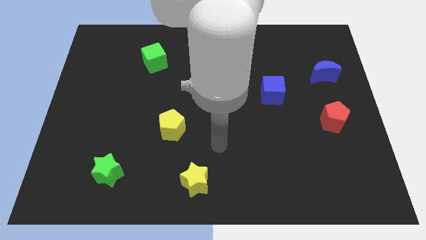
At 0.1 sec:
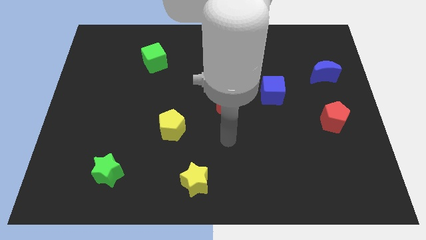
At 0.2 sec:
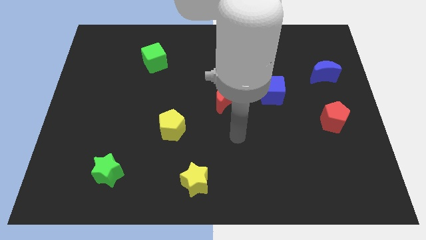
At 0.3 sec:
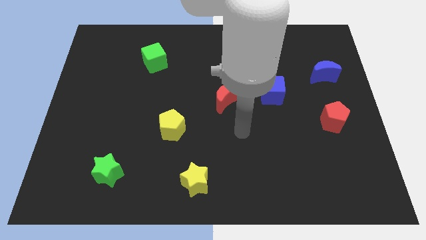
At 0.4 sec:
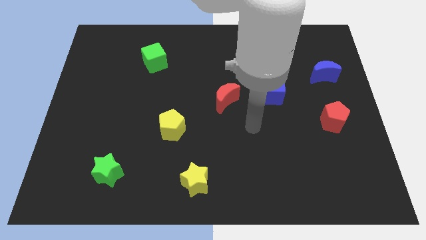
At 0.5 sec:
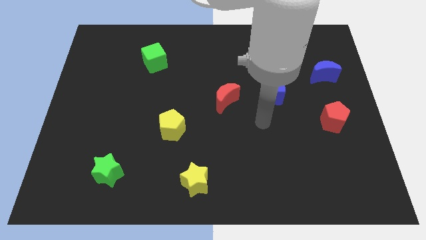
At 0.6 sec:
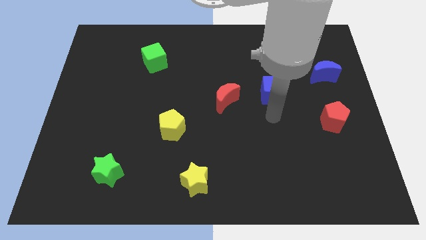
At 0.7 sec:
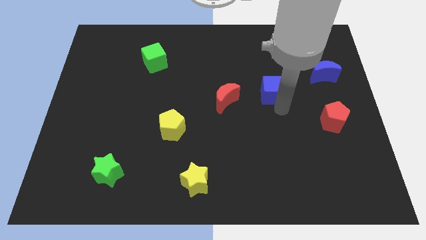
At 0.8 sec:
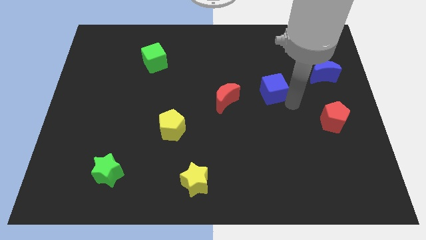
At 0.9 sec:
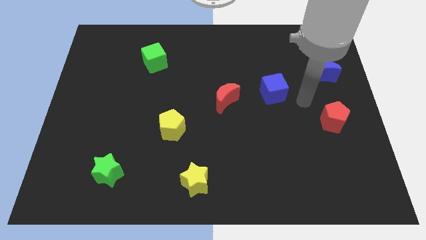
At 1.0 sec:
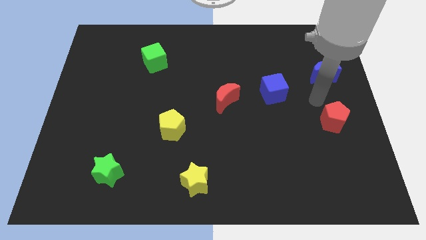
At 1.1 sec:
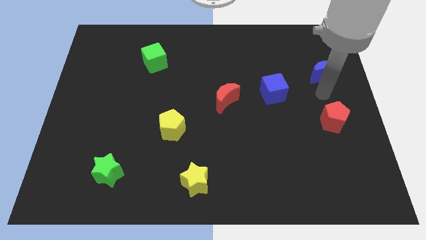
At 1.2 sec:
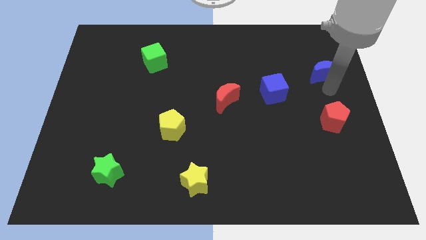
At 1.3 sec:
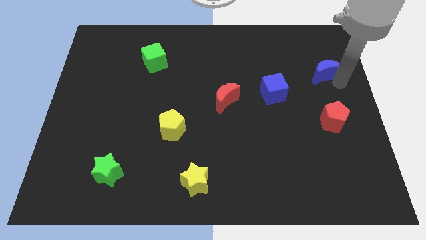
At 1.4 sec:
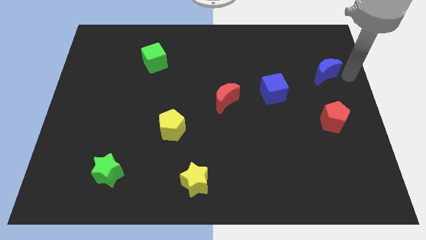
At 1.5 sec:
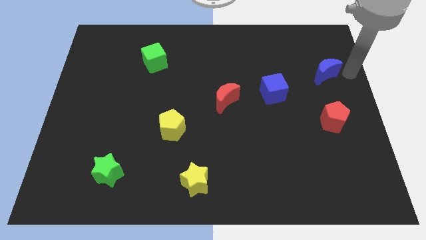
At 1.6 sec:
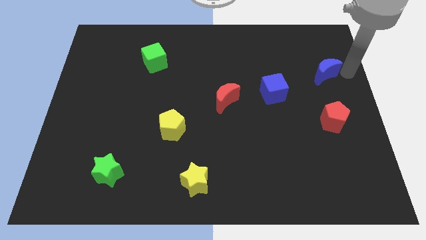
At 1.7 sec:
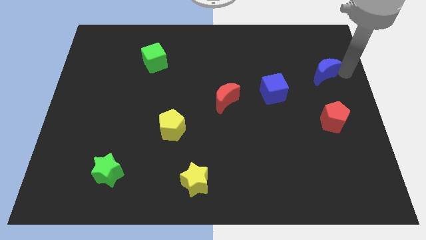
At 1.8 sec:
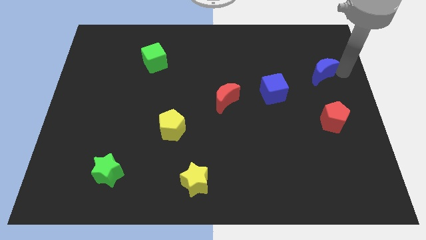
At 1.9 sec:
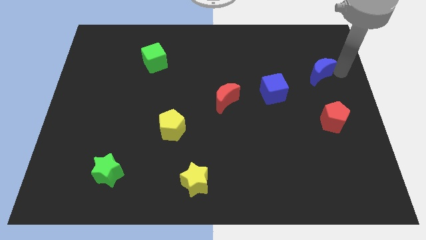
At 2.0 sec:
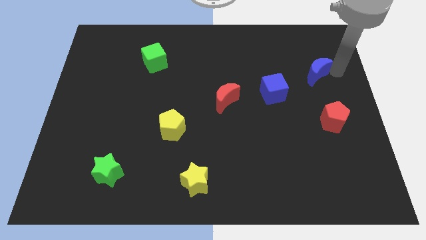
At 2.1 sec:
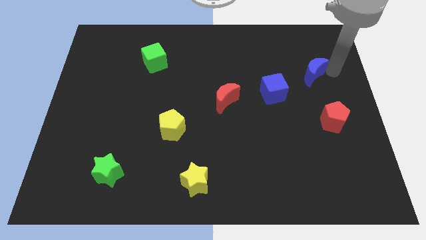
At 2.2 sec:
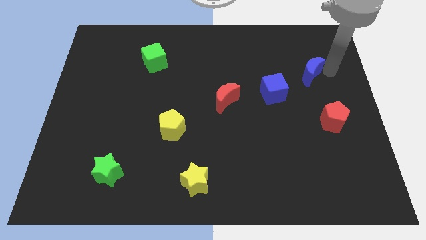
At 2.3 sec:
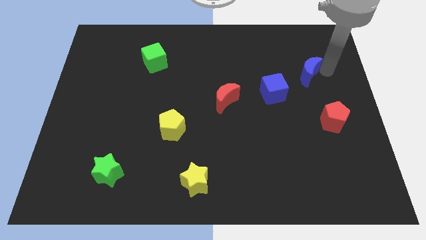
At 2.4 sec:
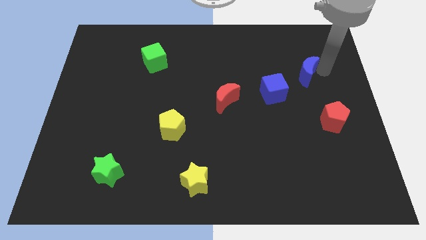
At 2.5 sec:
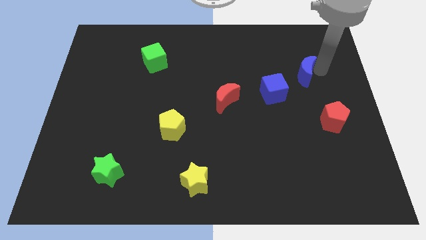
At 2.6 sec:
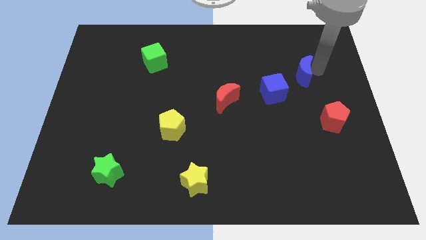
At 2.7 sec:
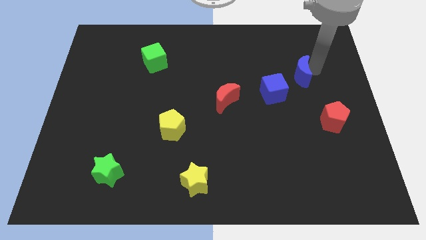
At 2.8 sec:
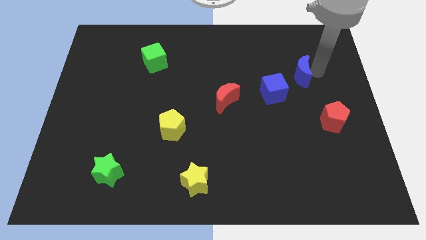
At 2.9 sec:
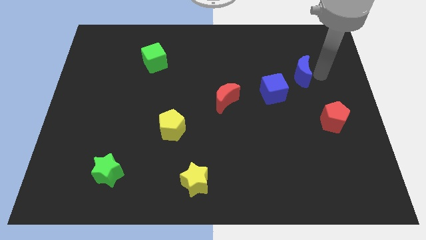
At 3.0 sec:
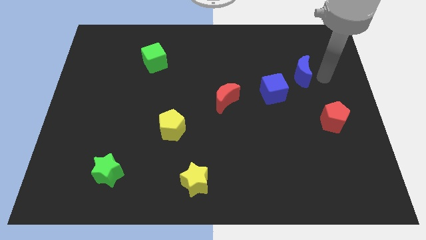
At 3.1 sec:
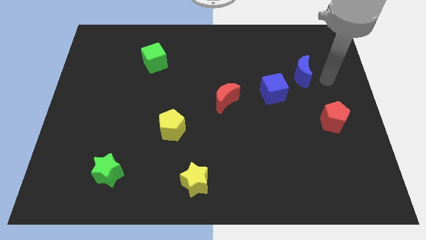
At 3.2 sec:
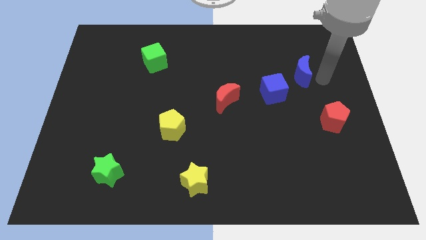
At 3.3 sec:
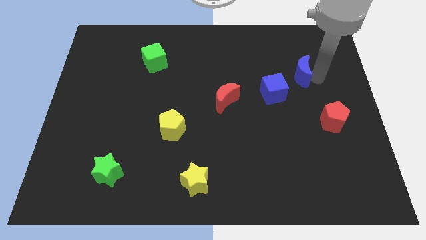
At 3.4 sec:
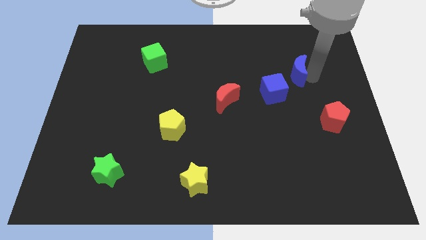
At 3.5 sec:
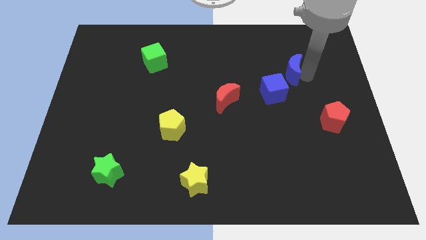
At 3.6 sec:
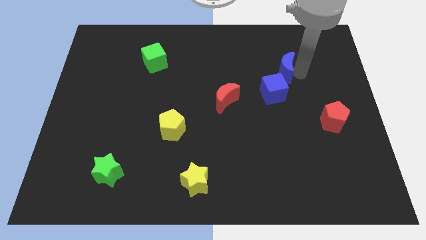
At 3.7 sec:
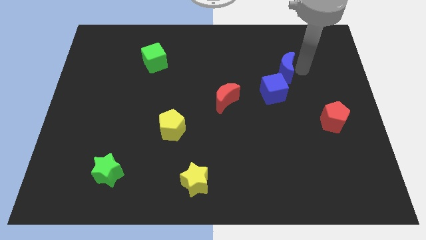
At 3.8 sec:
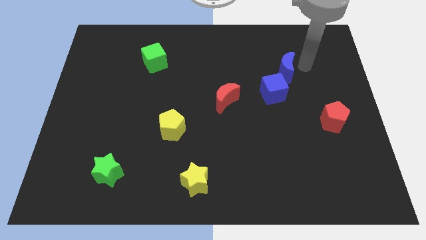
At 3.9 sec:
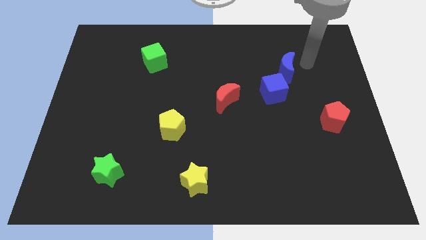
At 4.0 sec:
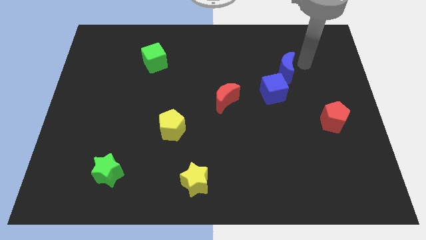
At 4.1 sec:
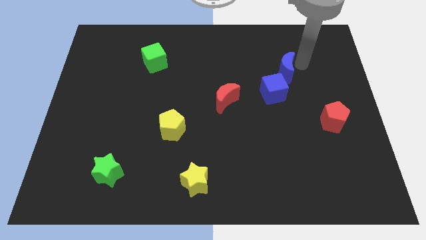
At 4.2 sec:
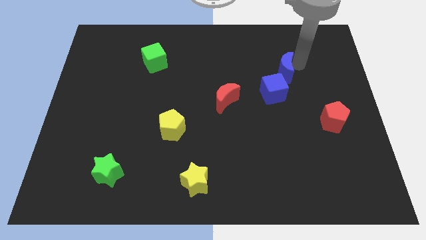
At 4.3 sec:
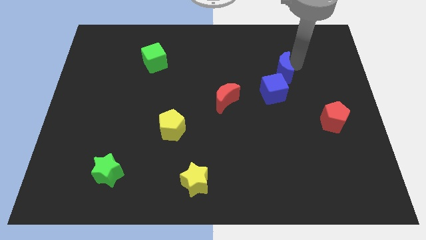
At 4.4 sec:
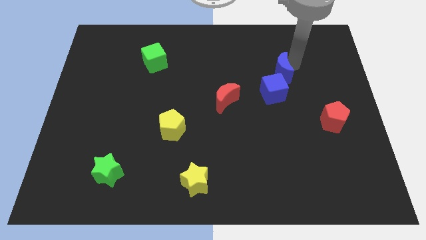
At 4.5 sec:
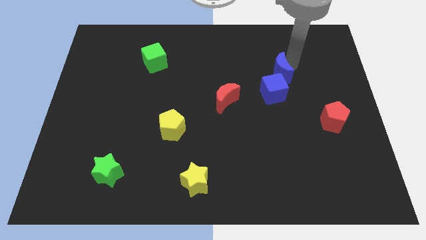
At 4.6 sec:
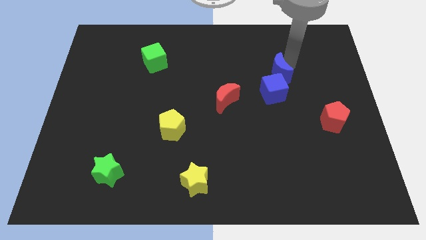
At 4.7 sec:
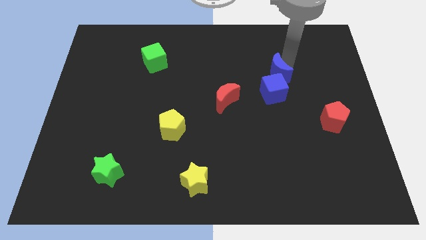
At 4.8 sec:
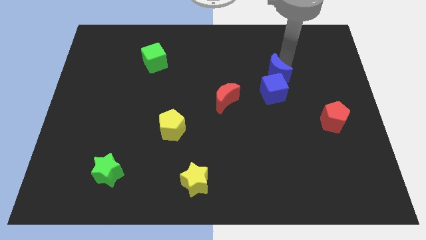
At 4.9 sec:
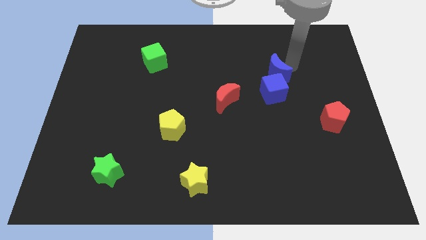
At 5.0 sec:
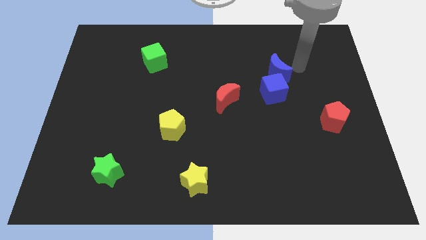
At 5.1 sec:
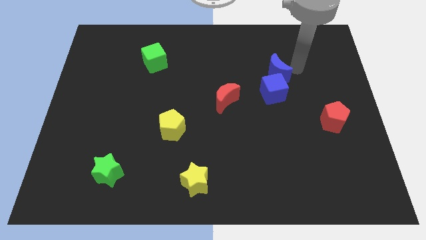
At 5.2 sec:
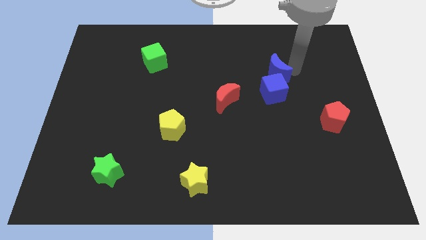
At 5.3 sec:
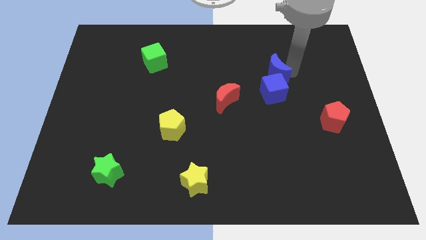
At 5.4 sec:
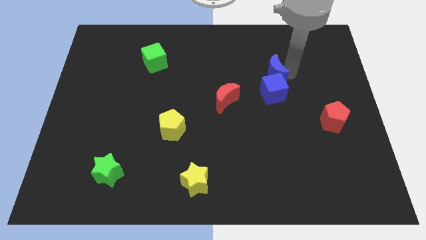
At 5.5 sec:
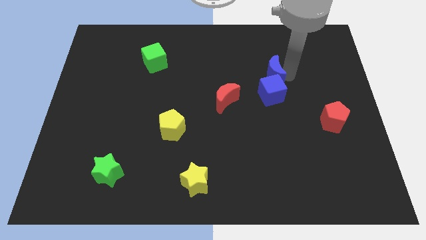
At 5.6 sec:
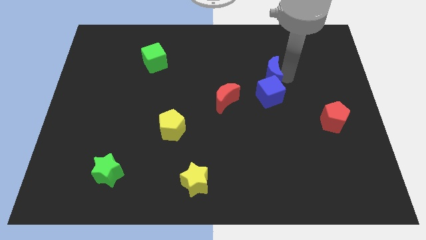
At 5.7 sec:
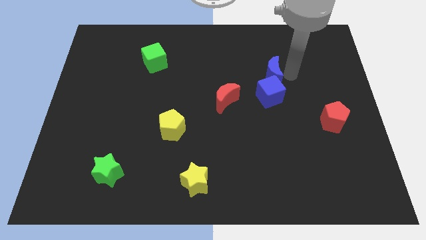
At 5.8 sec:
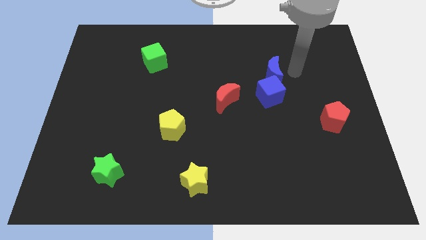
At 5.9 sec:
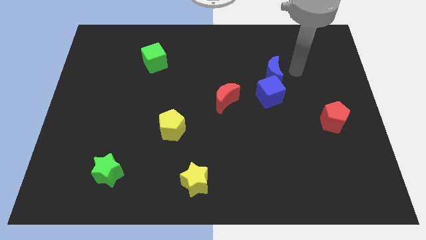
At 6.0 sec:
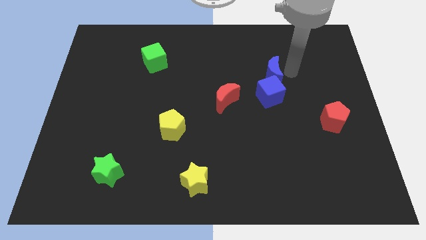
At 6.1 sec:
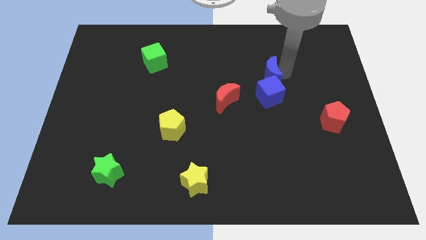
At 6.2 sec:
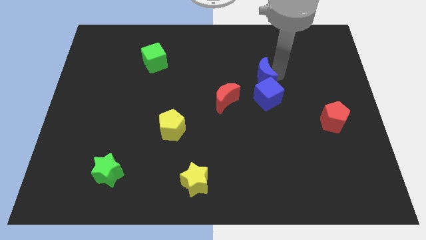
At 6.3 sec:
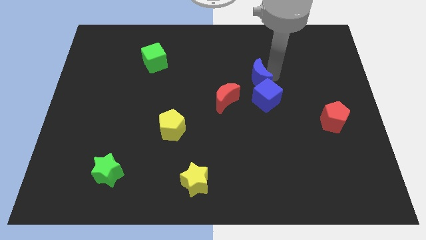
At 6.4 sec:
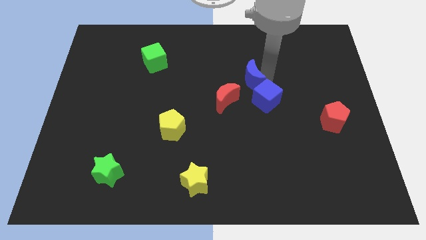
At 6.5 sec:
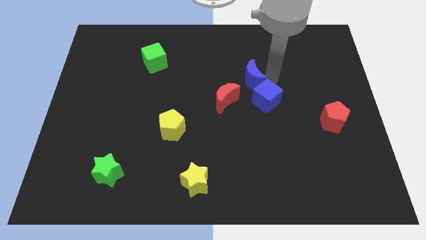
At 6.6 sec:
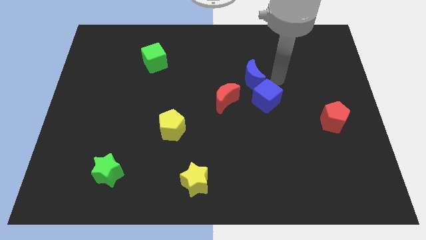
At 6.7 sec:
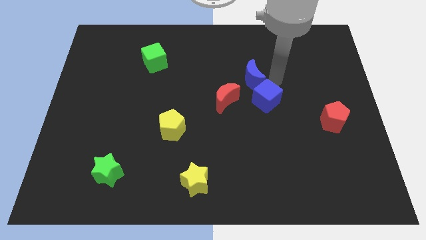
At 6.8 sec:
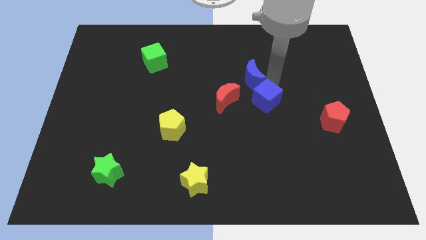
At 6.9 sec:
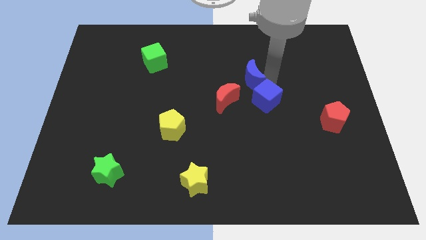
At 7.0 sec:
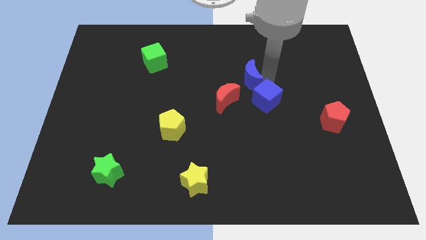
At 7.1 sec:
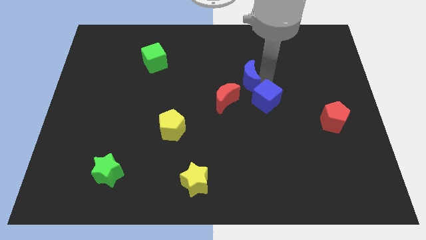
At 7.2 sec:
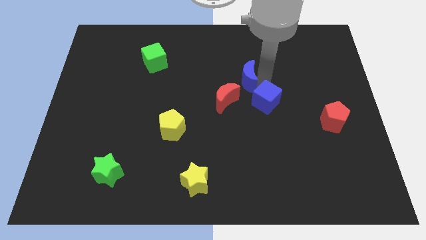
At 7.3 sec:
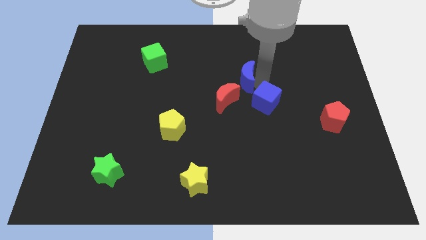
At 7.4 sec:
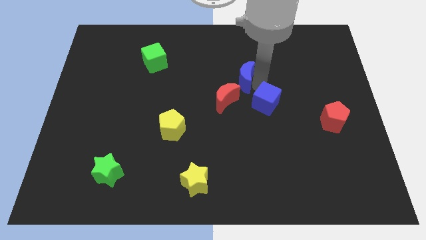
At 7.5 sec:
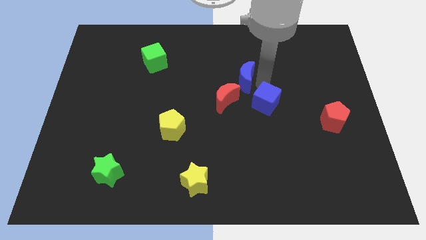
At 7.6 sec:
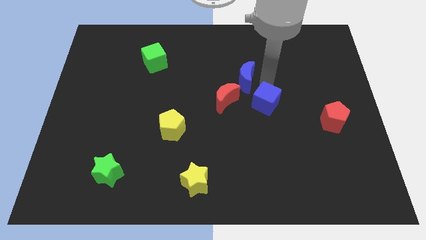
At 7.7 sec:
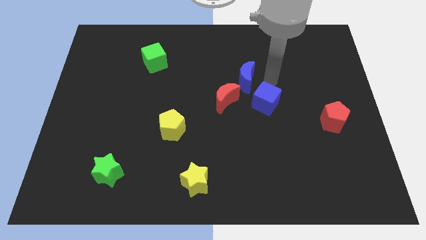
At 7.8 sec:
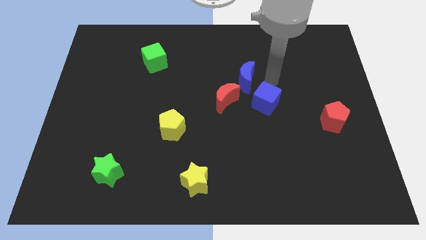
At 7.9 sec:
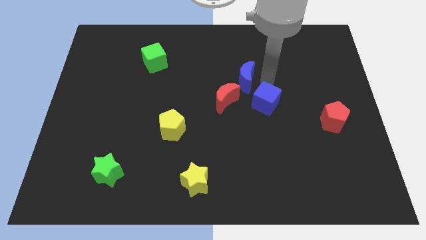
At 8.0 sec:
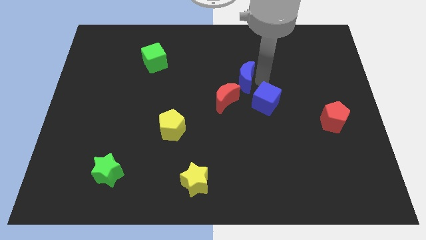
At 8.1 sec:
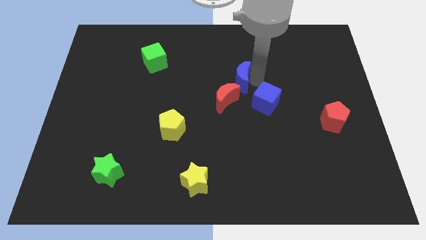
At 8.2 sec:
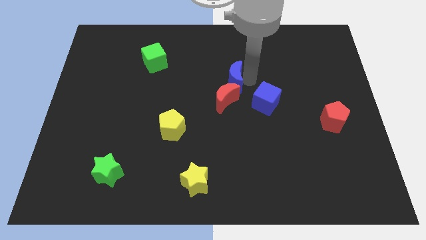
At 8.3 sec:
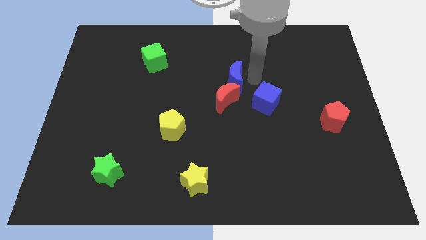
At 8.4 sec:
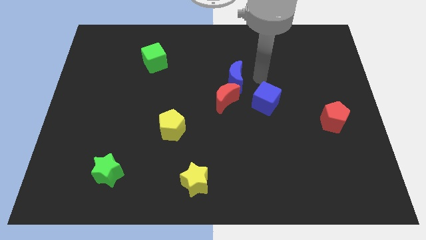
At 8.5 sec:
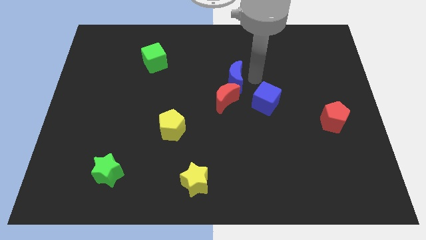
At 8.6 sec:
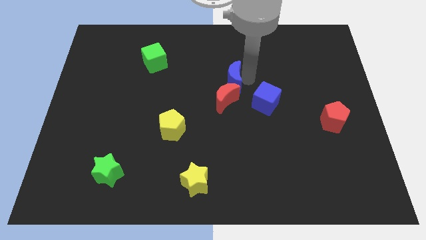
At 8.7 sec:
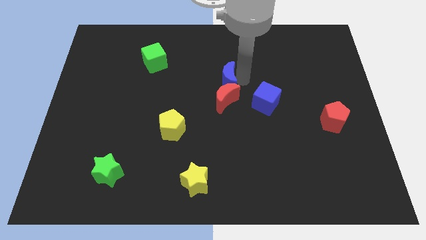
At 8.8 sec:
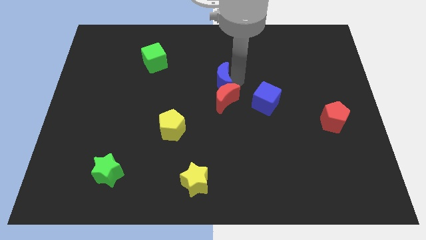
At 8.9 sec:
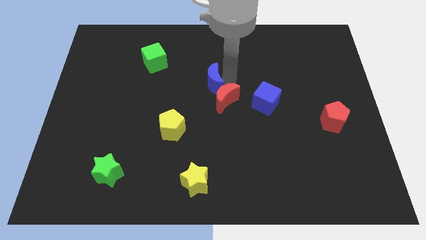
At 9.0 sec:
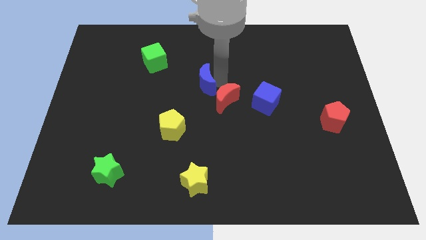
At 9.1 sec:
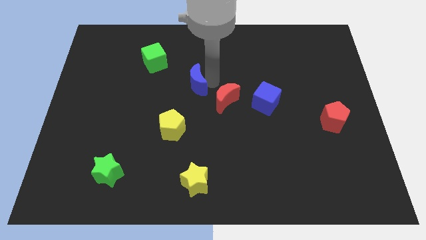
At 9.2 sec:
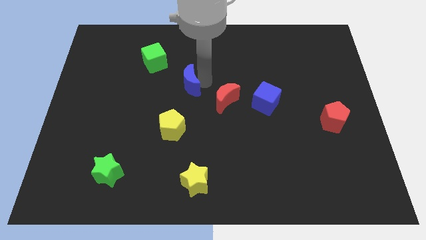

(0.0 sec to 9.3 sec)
put the blue moon to the top side of the yellow pentagon
